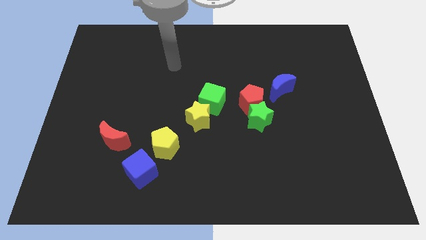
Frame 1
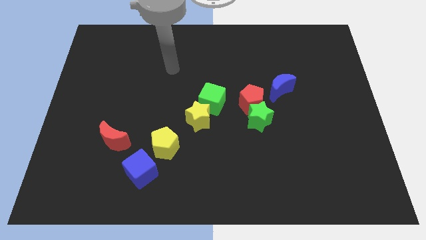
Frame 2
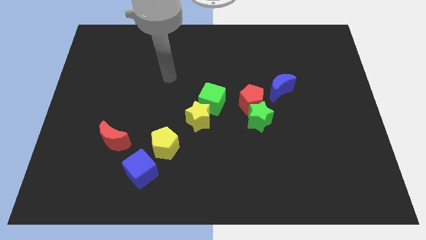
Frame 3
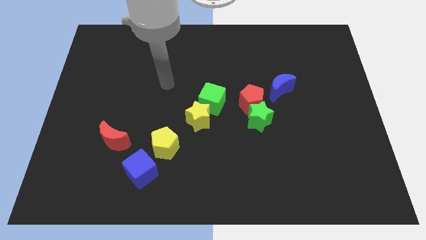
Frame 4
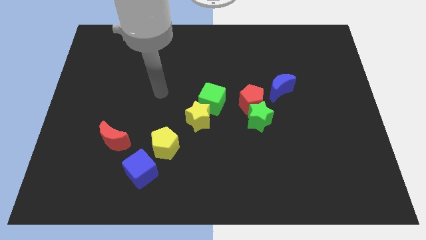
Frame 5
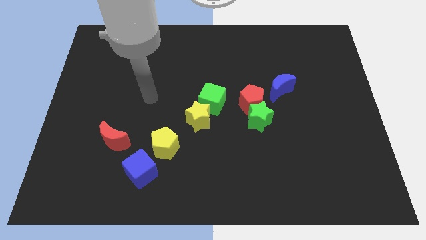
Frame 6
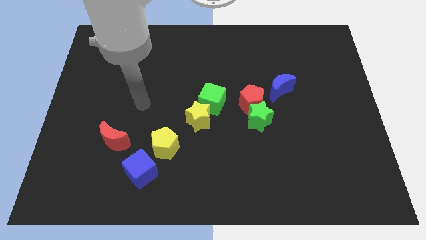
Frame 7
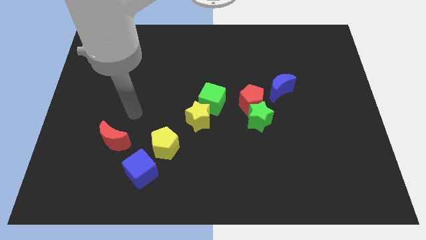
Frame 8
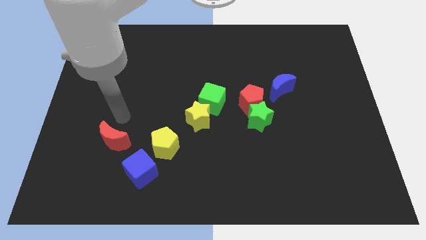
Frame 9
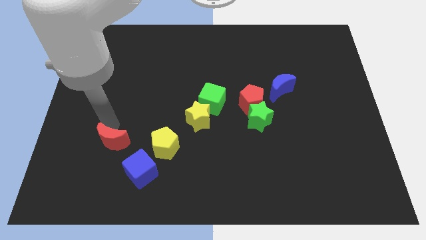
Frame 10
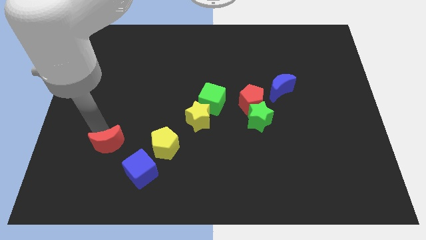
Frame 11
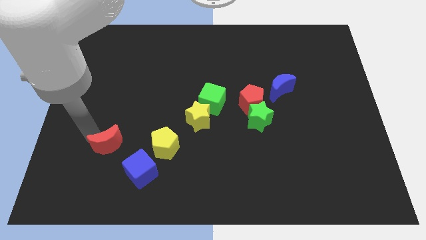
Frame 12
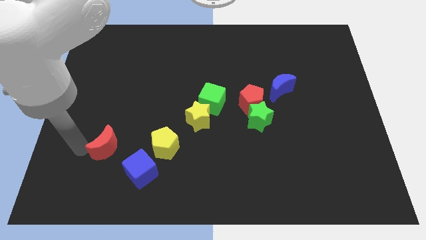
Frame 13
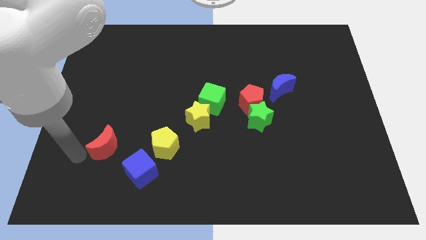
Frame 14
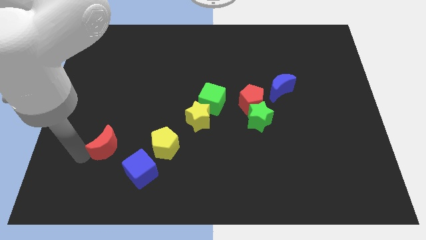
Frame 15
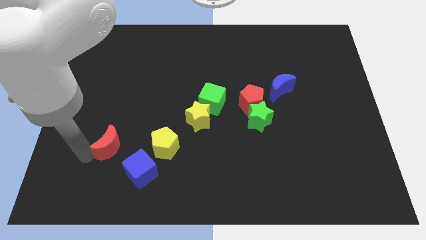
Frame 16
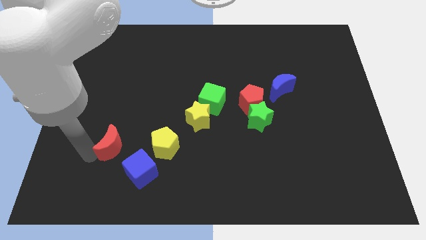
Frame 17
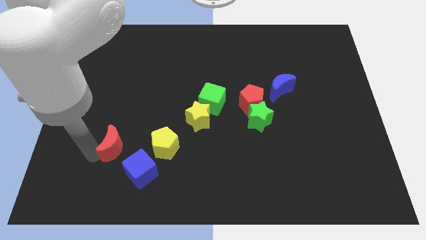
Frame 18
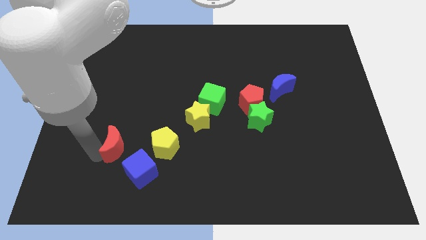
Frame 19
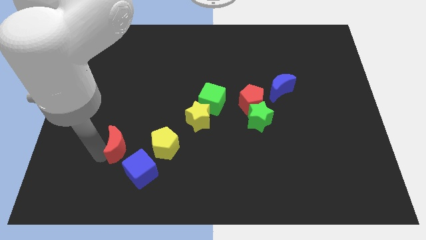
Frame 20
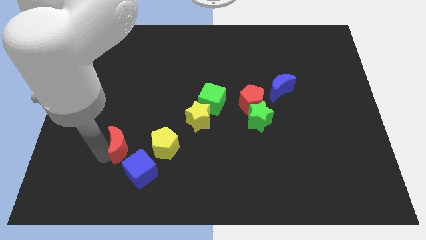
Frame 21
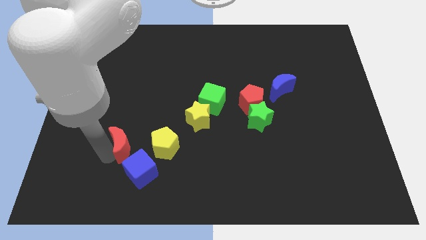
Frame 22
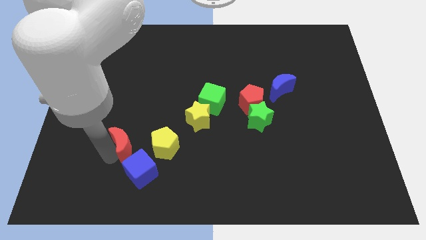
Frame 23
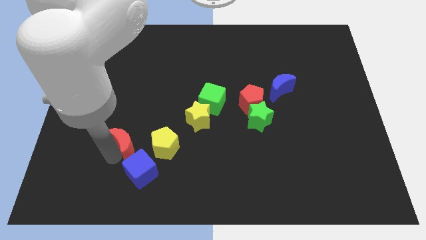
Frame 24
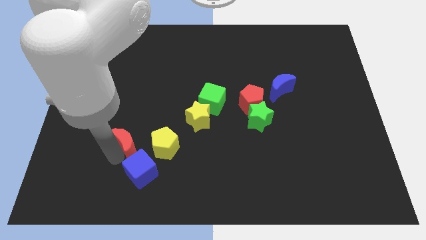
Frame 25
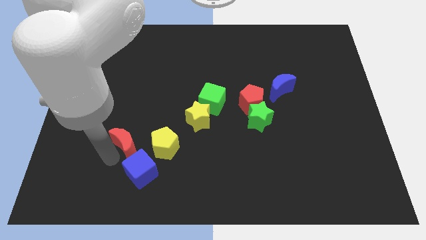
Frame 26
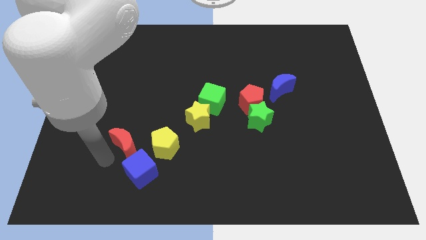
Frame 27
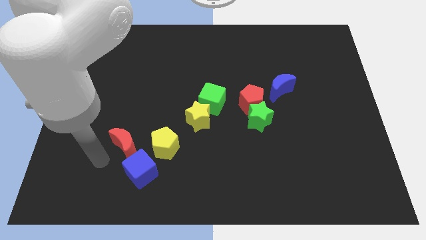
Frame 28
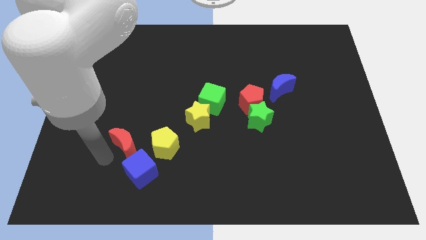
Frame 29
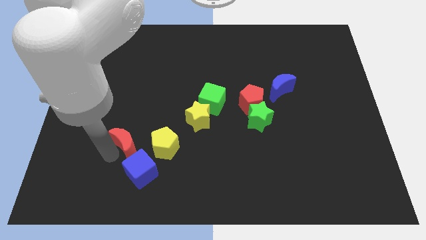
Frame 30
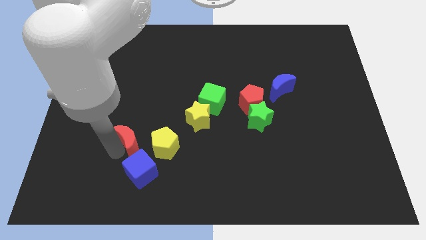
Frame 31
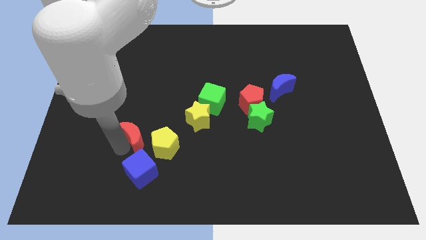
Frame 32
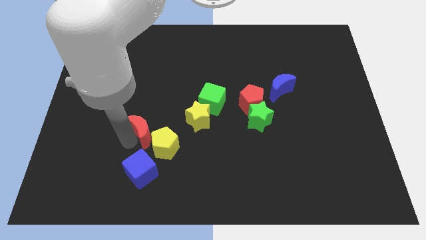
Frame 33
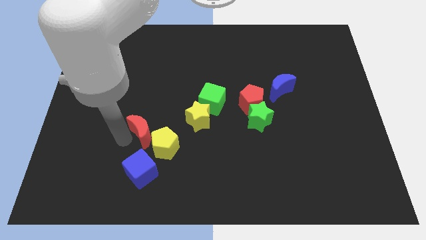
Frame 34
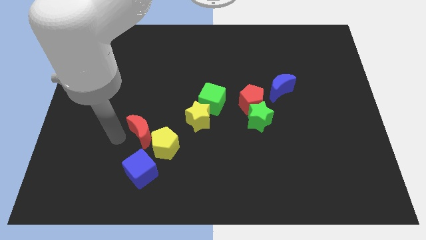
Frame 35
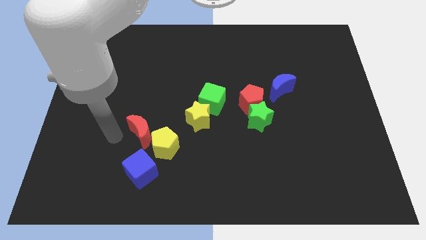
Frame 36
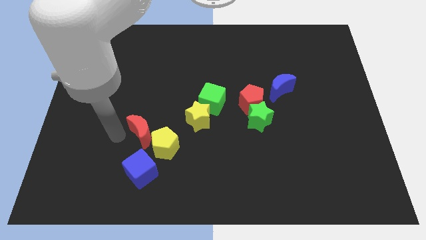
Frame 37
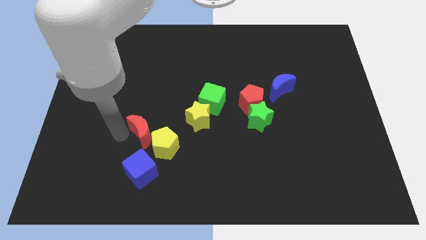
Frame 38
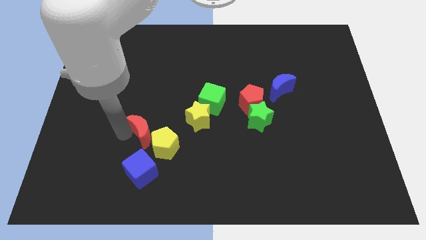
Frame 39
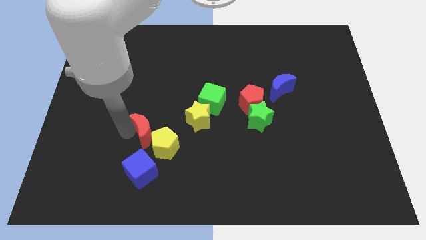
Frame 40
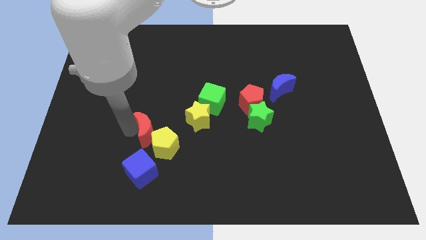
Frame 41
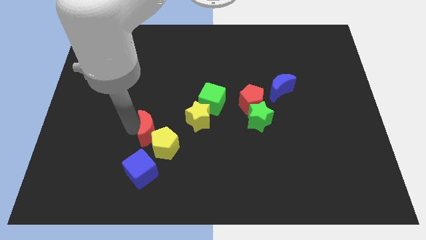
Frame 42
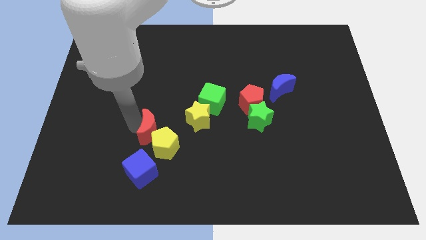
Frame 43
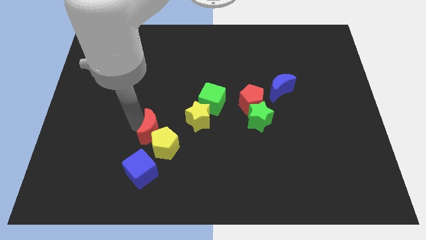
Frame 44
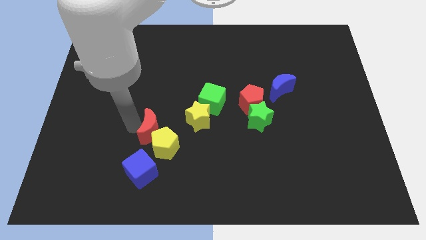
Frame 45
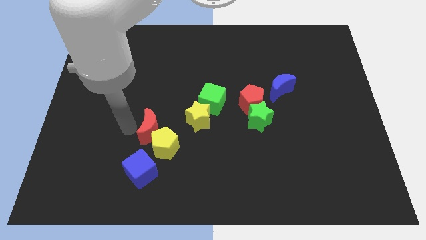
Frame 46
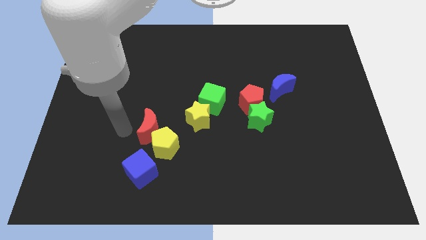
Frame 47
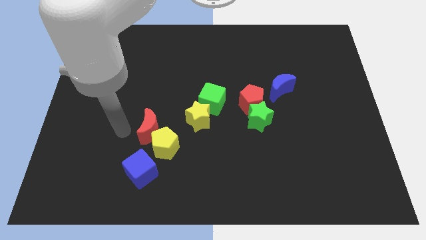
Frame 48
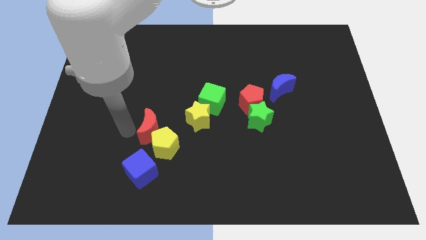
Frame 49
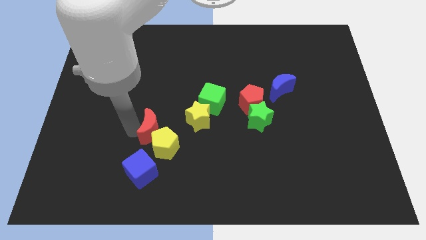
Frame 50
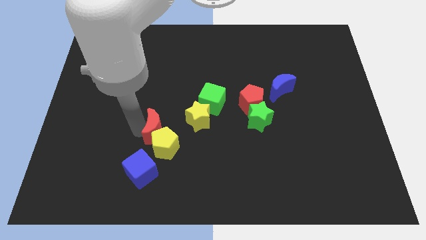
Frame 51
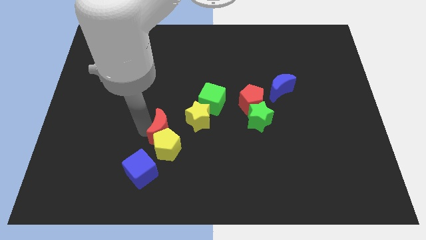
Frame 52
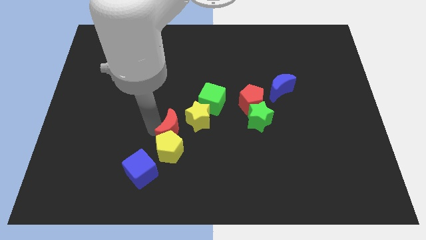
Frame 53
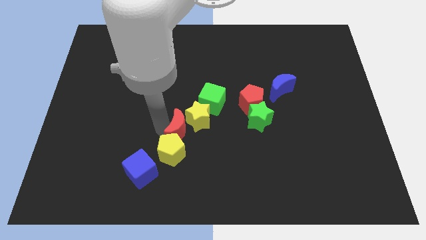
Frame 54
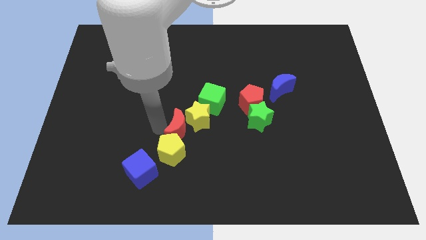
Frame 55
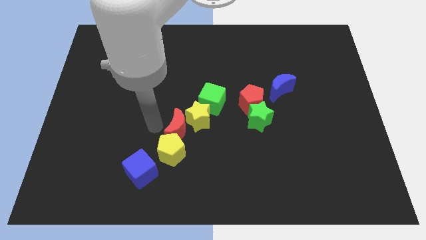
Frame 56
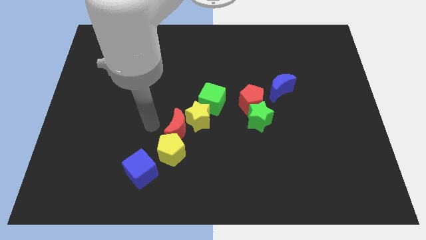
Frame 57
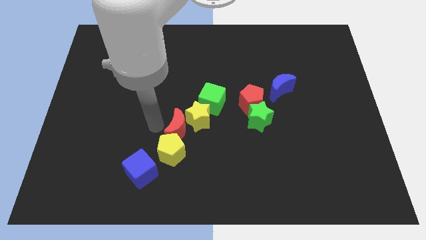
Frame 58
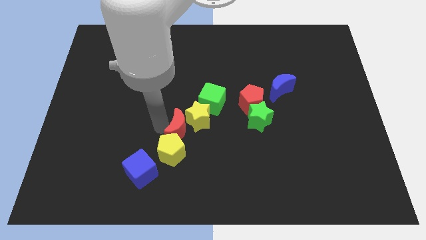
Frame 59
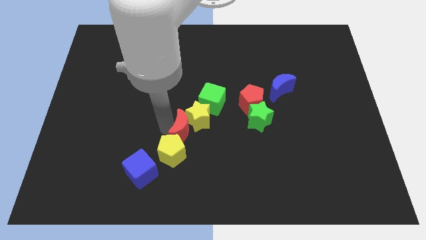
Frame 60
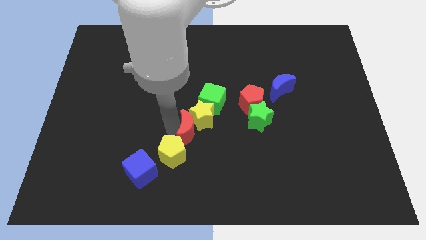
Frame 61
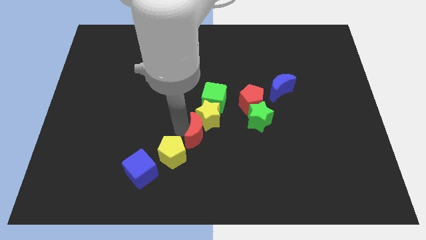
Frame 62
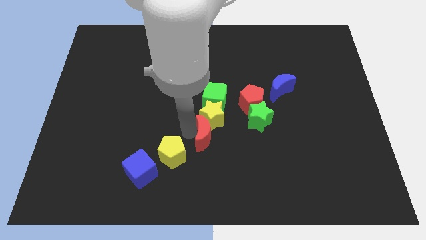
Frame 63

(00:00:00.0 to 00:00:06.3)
slide the red moon right

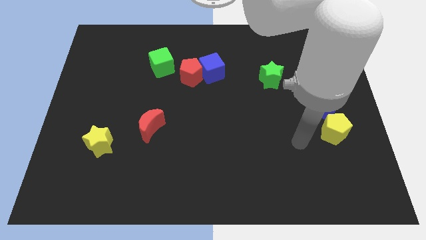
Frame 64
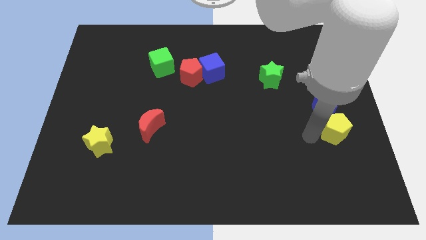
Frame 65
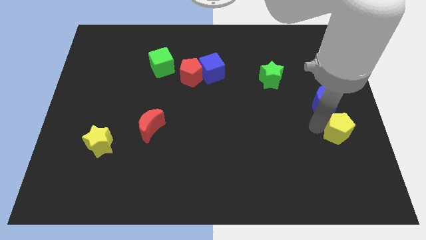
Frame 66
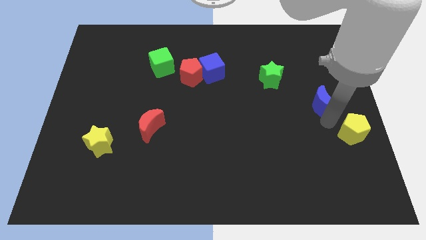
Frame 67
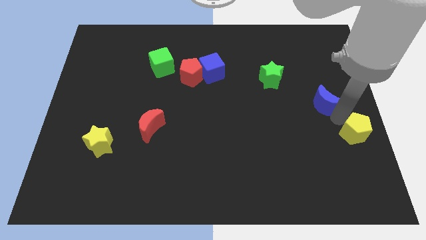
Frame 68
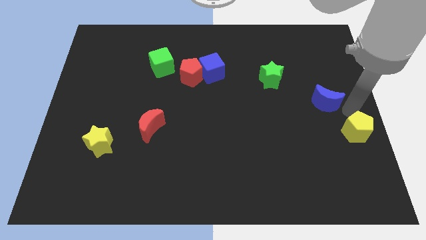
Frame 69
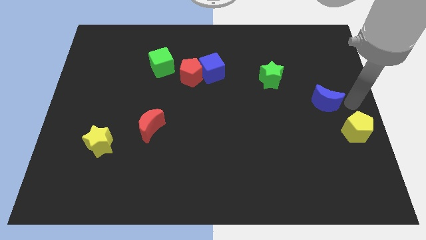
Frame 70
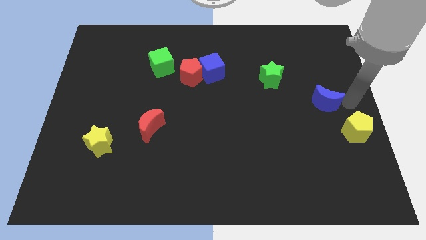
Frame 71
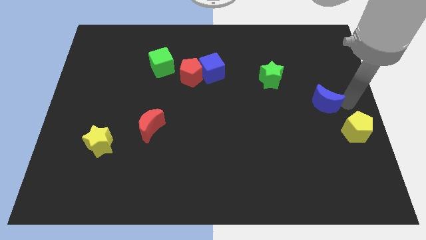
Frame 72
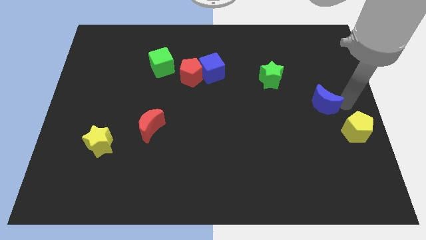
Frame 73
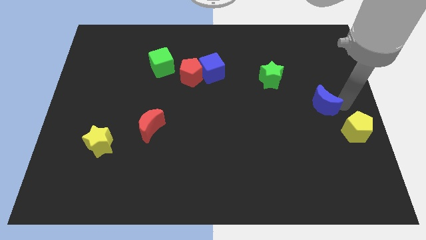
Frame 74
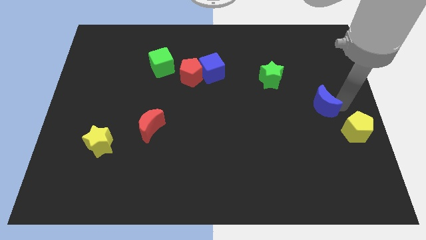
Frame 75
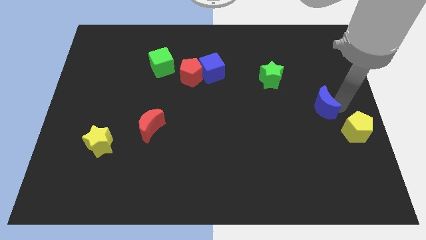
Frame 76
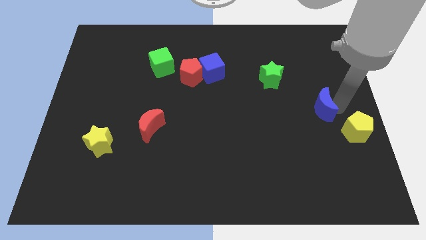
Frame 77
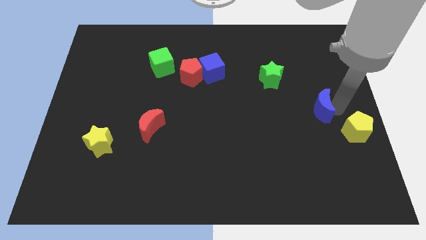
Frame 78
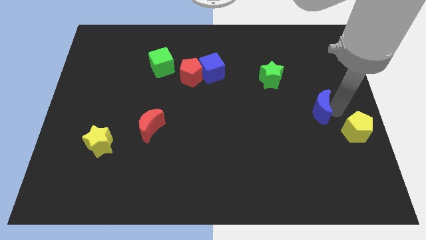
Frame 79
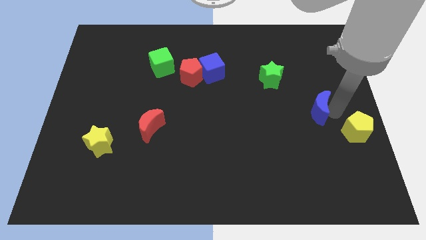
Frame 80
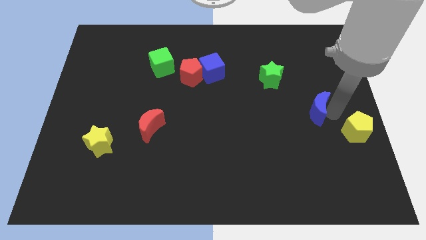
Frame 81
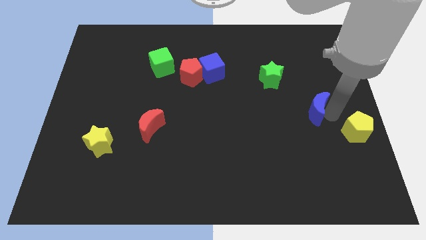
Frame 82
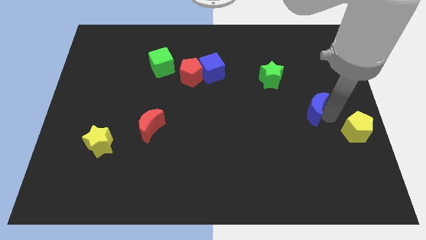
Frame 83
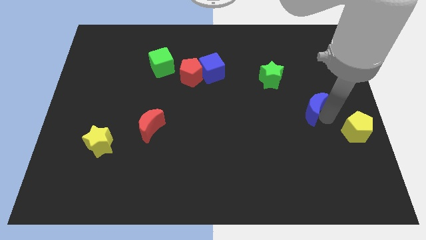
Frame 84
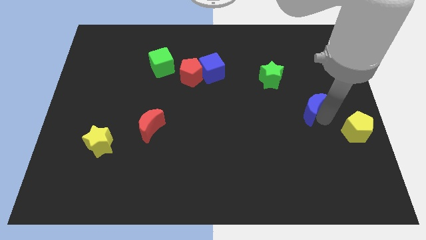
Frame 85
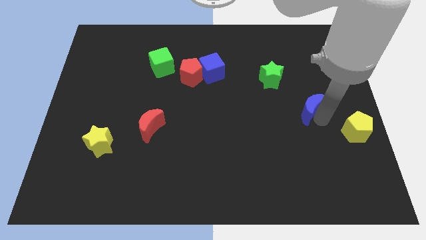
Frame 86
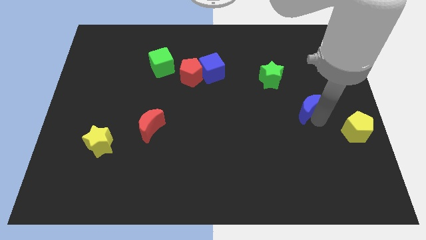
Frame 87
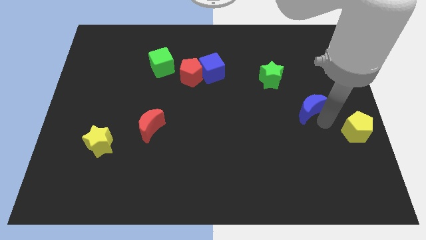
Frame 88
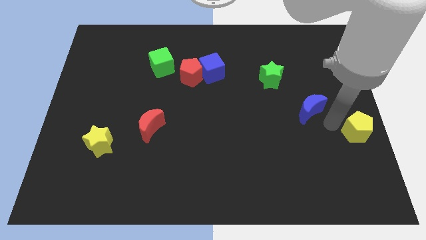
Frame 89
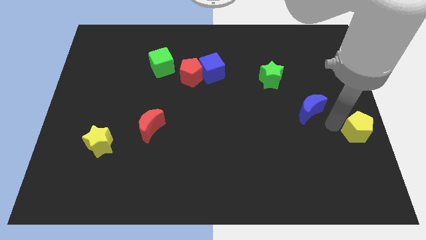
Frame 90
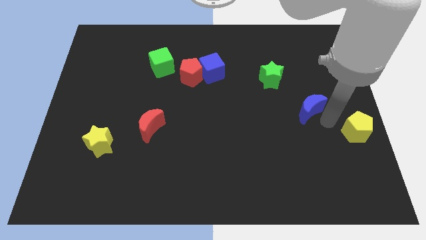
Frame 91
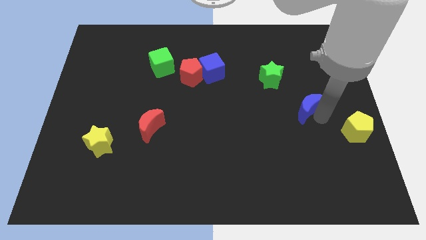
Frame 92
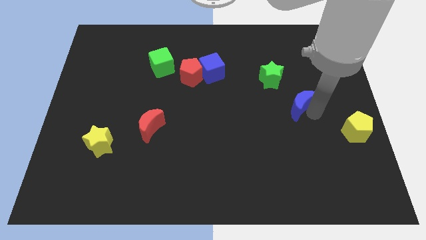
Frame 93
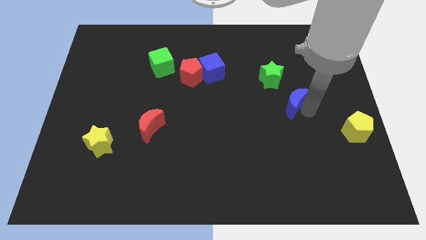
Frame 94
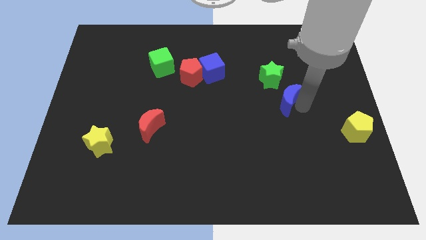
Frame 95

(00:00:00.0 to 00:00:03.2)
slightly move the blue moon to the left
